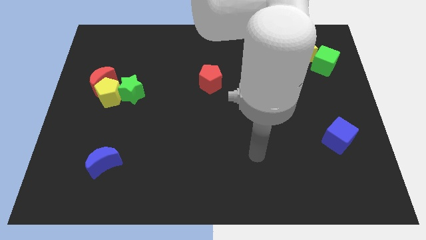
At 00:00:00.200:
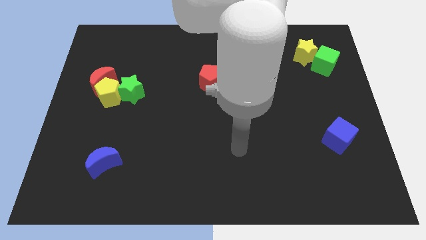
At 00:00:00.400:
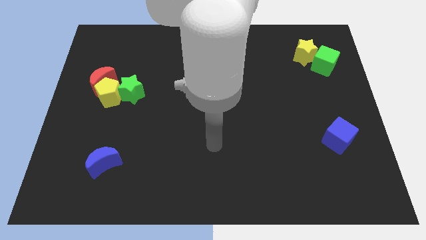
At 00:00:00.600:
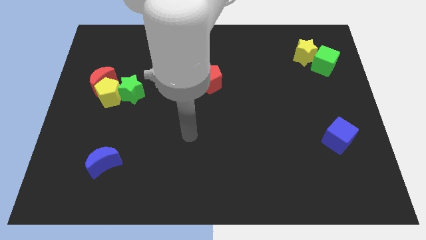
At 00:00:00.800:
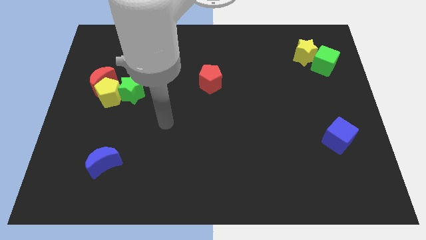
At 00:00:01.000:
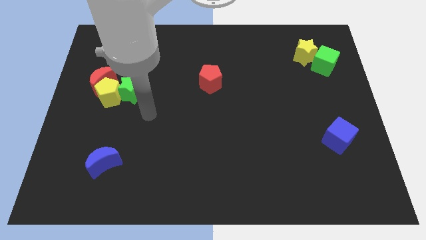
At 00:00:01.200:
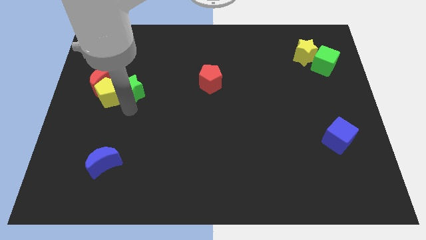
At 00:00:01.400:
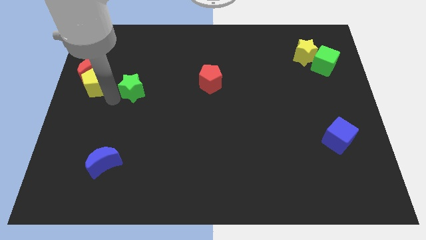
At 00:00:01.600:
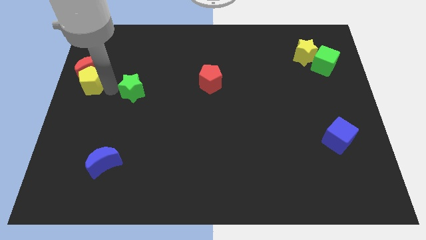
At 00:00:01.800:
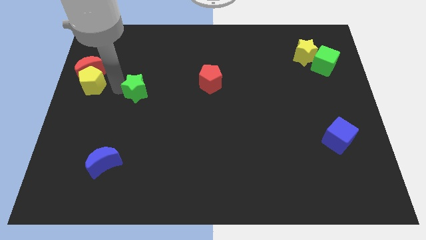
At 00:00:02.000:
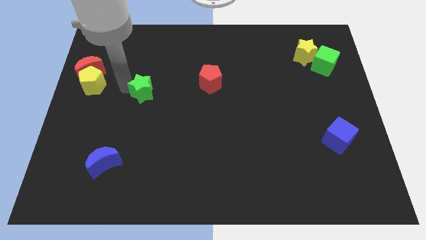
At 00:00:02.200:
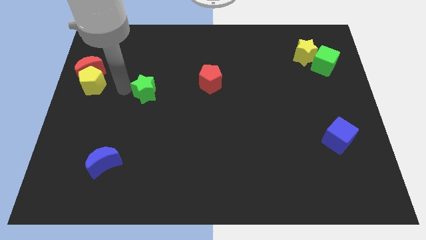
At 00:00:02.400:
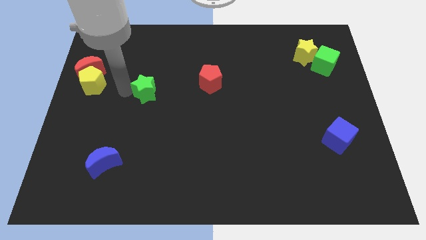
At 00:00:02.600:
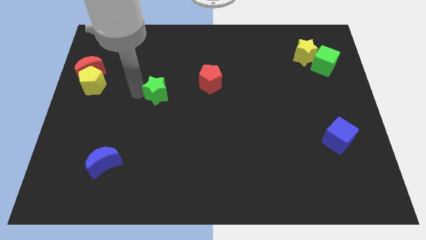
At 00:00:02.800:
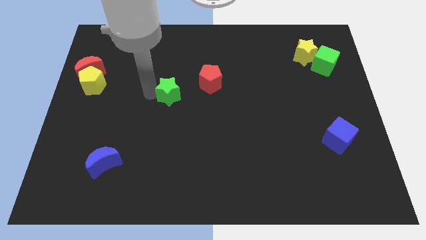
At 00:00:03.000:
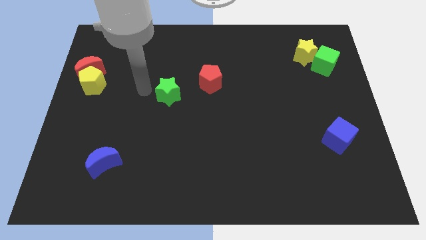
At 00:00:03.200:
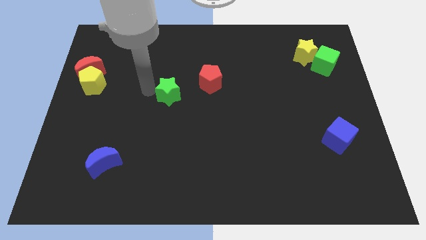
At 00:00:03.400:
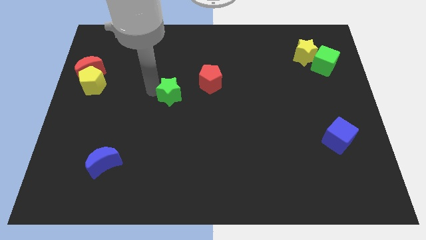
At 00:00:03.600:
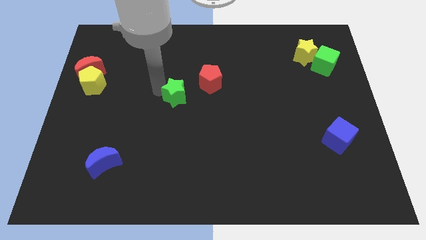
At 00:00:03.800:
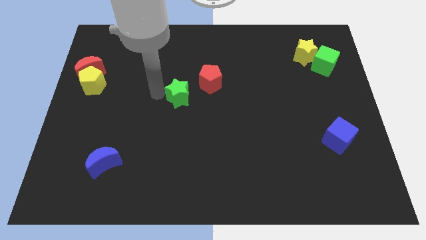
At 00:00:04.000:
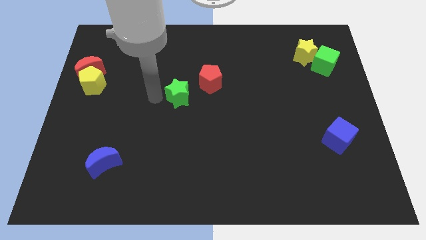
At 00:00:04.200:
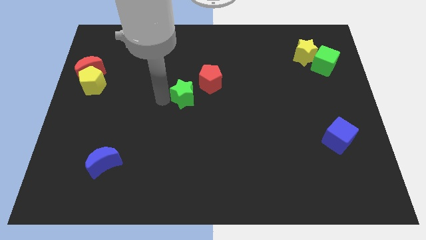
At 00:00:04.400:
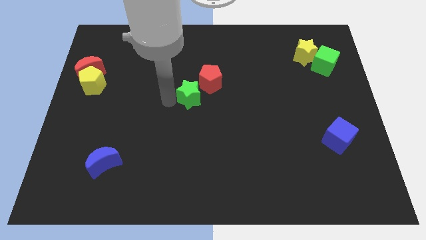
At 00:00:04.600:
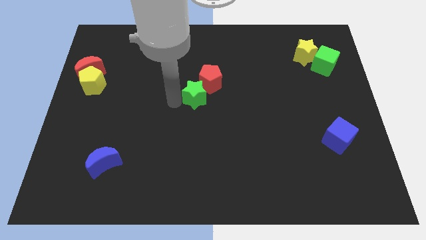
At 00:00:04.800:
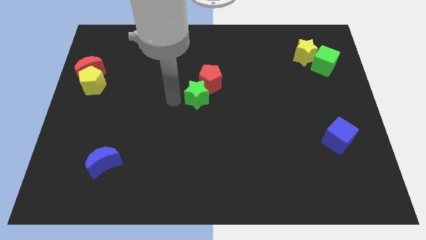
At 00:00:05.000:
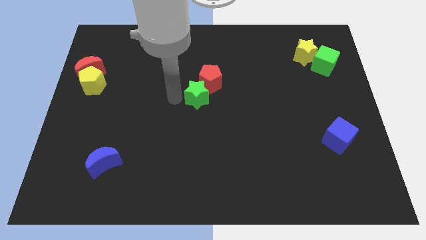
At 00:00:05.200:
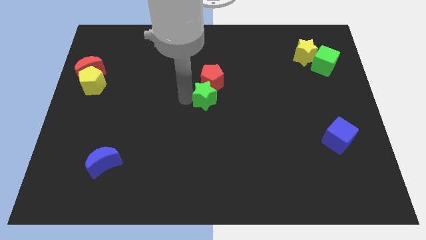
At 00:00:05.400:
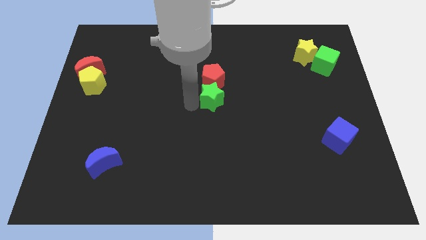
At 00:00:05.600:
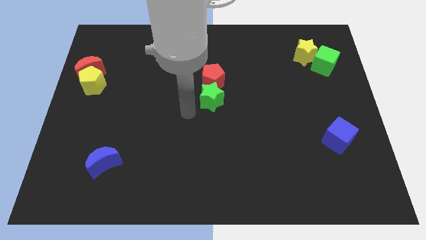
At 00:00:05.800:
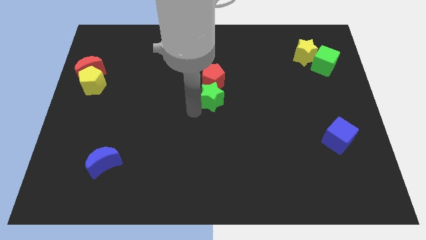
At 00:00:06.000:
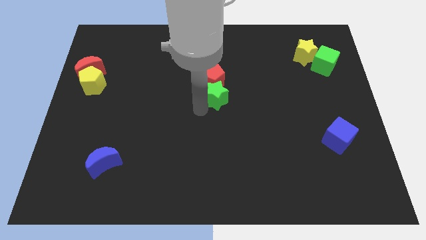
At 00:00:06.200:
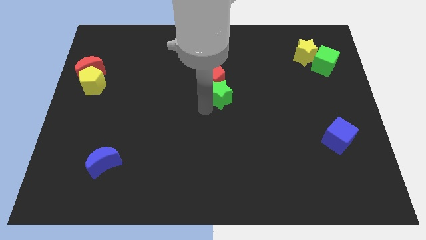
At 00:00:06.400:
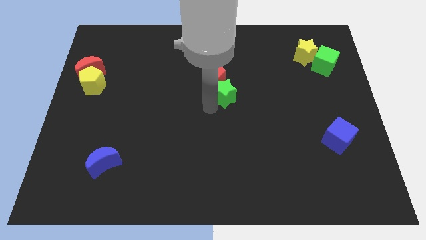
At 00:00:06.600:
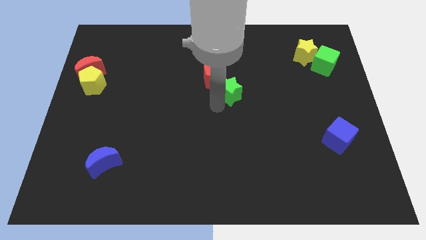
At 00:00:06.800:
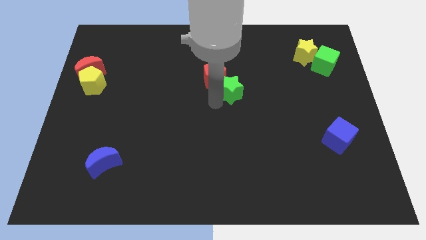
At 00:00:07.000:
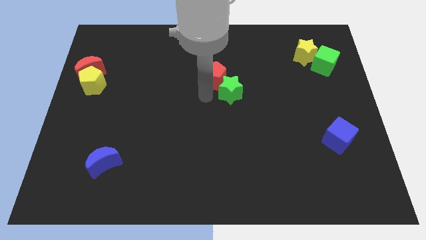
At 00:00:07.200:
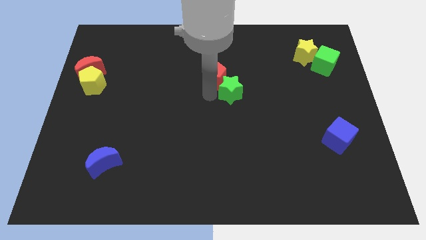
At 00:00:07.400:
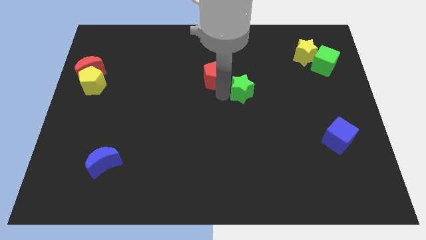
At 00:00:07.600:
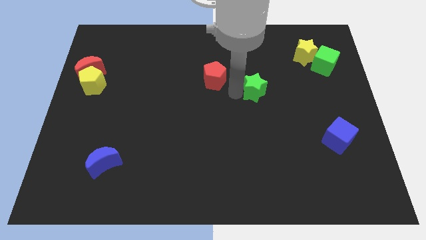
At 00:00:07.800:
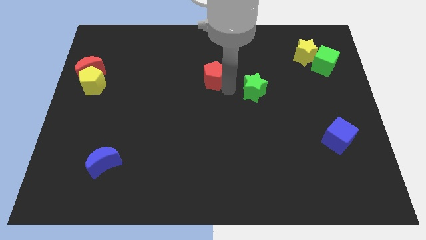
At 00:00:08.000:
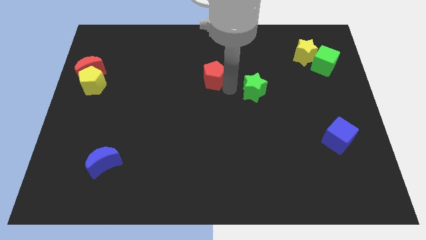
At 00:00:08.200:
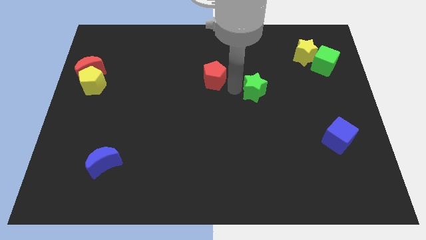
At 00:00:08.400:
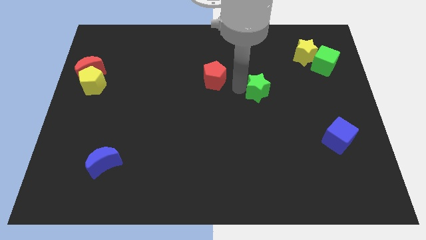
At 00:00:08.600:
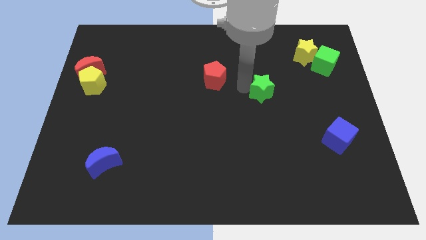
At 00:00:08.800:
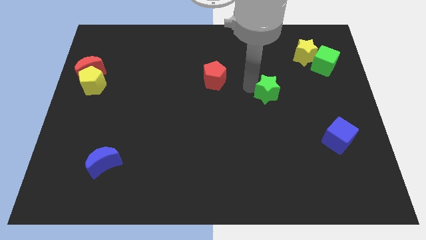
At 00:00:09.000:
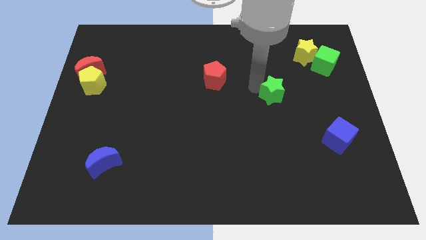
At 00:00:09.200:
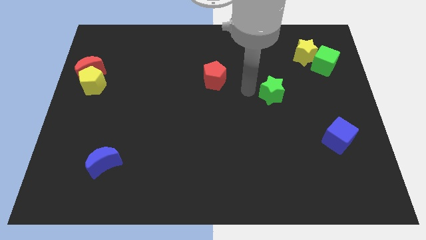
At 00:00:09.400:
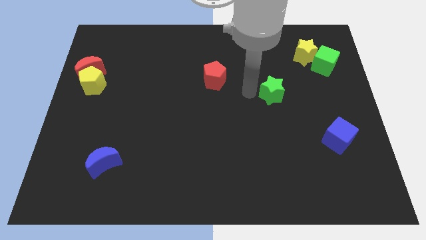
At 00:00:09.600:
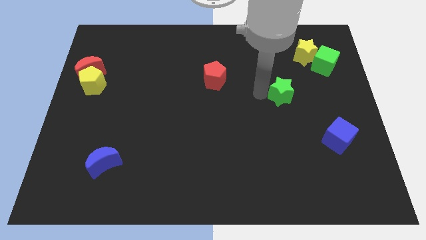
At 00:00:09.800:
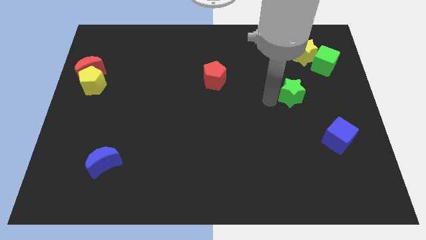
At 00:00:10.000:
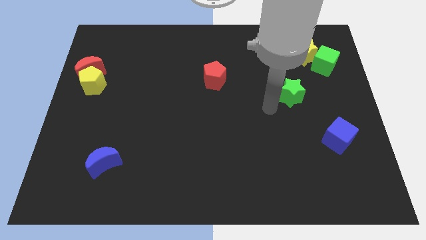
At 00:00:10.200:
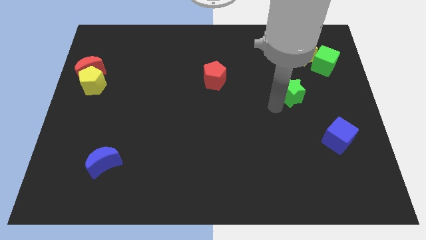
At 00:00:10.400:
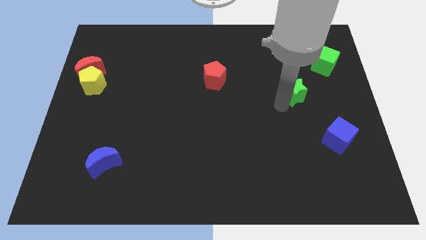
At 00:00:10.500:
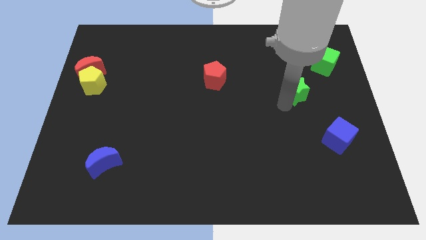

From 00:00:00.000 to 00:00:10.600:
move the green star below the yellow star

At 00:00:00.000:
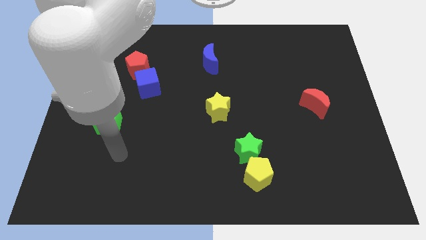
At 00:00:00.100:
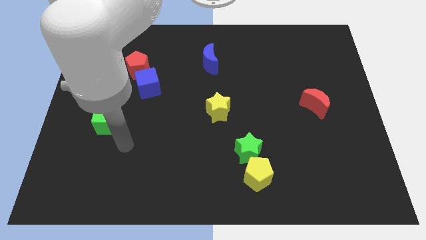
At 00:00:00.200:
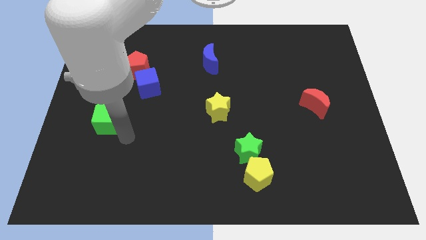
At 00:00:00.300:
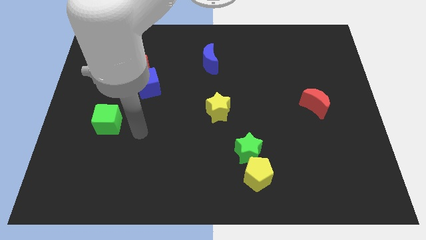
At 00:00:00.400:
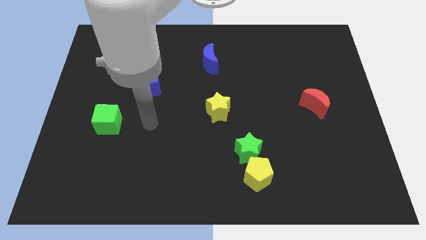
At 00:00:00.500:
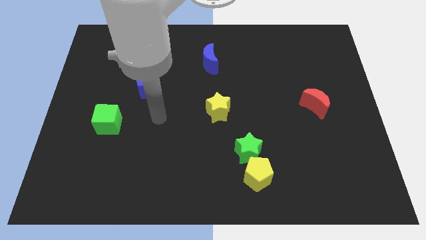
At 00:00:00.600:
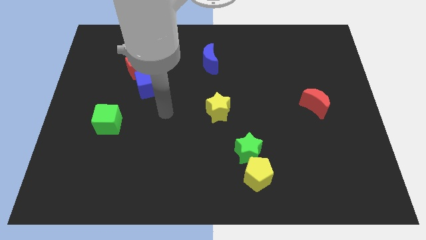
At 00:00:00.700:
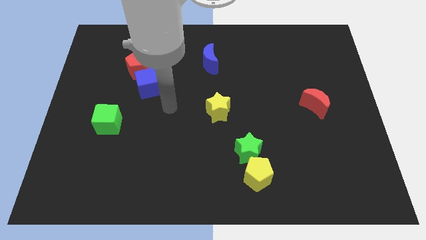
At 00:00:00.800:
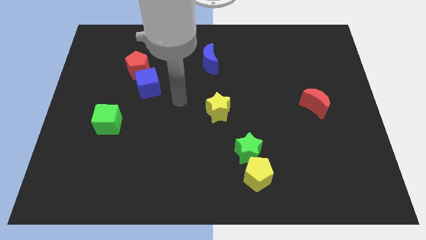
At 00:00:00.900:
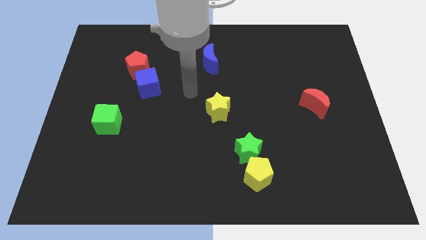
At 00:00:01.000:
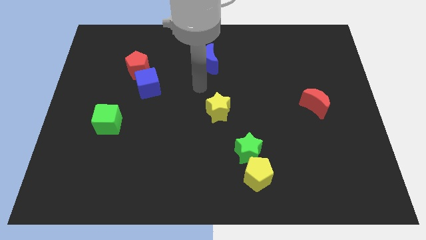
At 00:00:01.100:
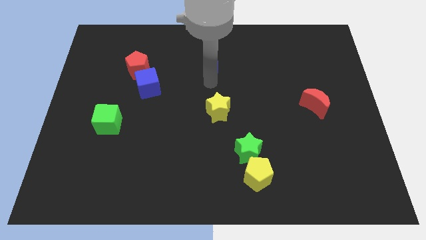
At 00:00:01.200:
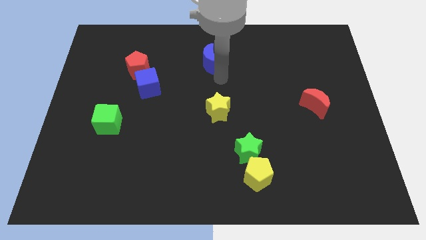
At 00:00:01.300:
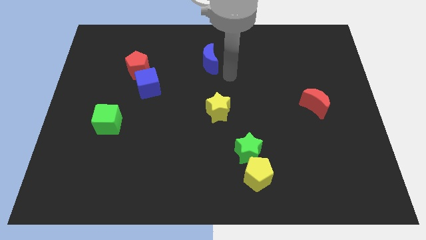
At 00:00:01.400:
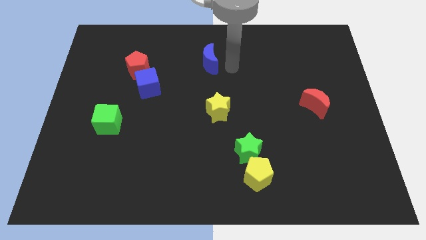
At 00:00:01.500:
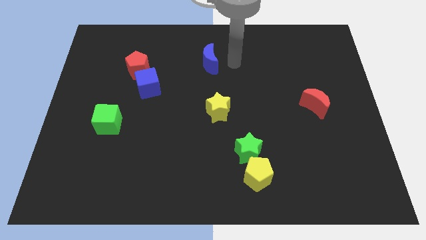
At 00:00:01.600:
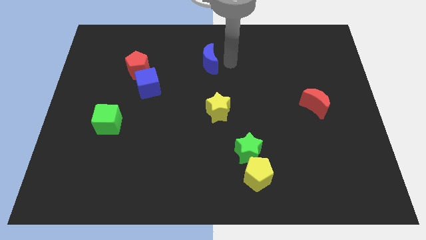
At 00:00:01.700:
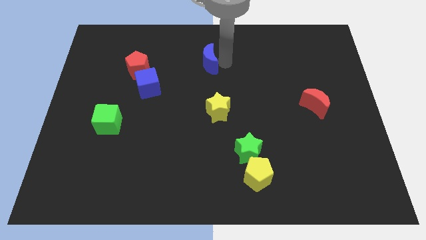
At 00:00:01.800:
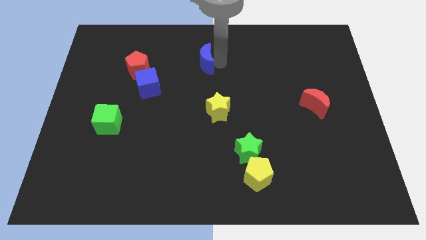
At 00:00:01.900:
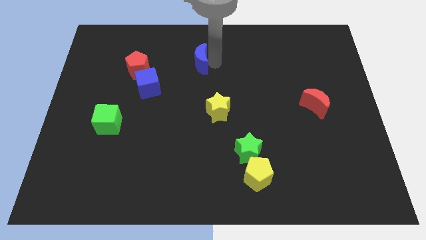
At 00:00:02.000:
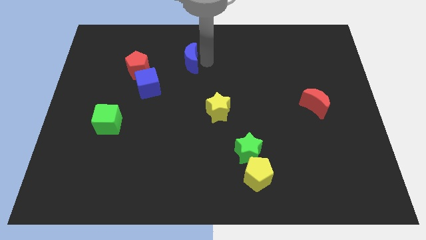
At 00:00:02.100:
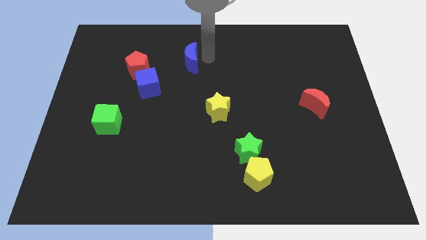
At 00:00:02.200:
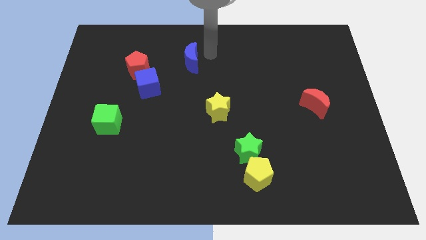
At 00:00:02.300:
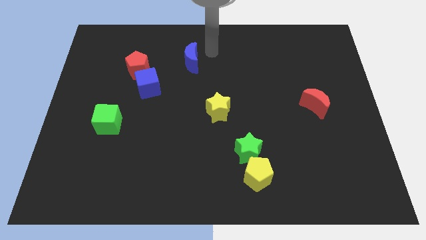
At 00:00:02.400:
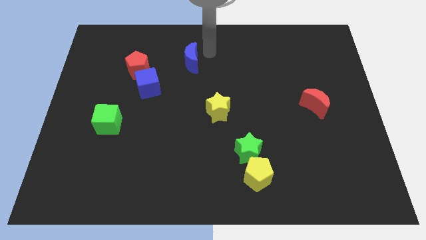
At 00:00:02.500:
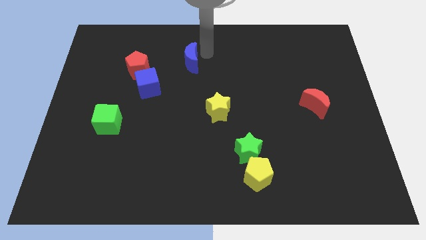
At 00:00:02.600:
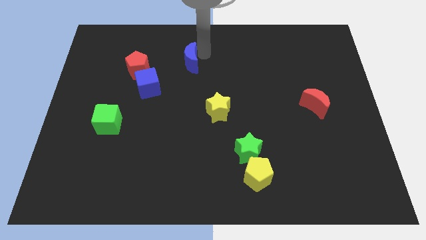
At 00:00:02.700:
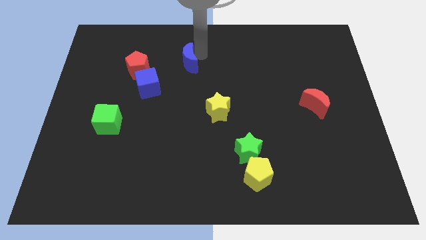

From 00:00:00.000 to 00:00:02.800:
move the blue moon diagonally up and to the right of the blue cube
